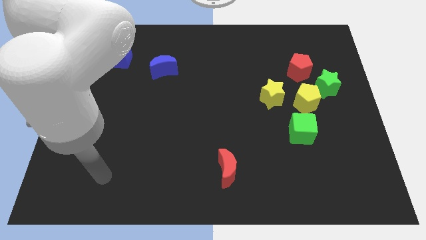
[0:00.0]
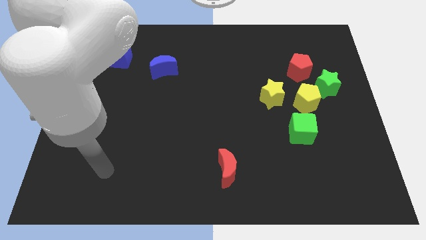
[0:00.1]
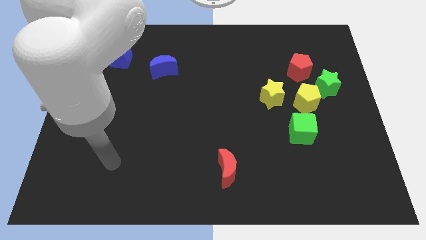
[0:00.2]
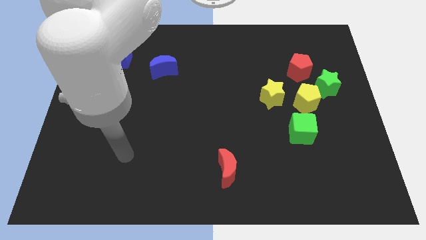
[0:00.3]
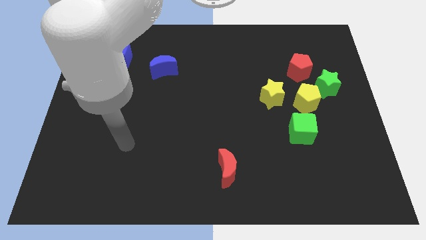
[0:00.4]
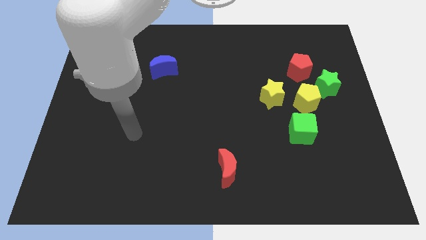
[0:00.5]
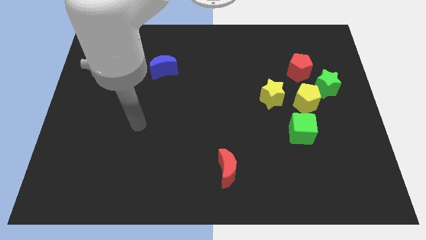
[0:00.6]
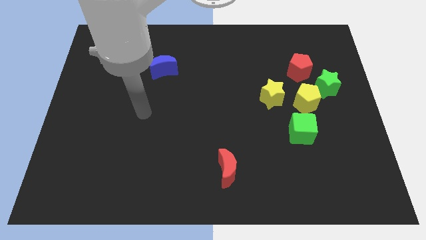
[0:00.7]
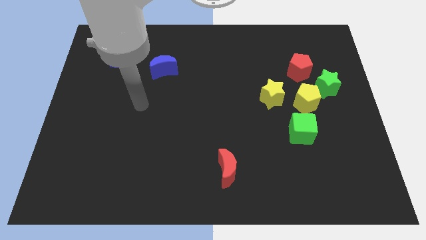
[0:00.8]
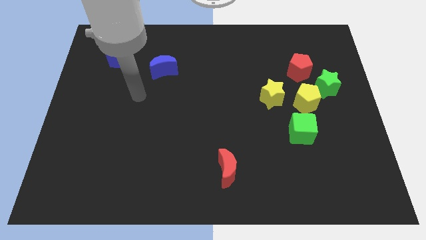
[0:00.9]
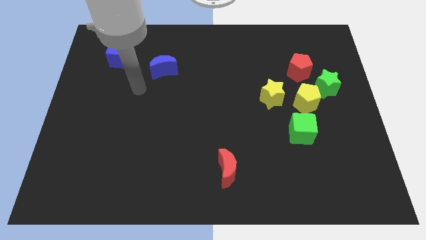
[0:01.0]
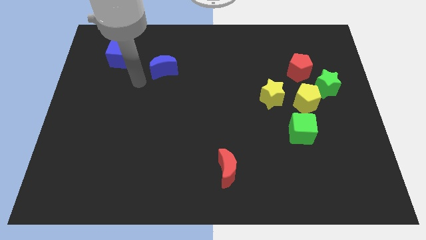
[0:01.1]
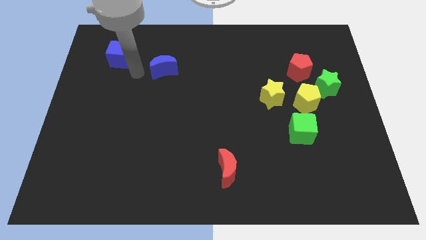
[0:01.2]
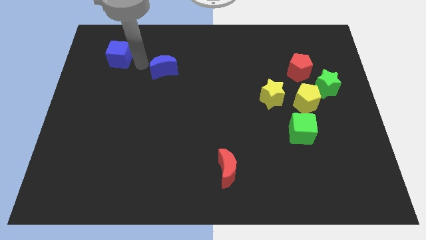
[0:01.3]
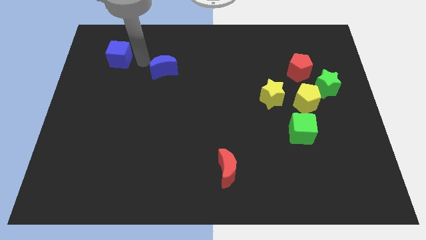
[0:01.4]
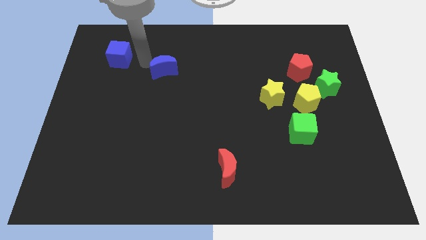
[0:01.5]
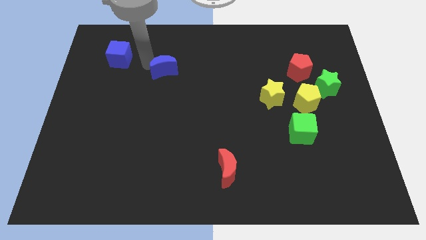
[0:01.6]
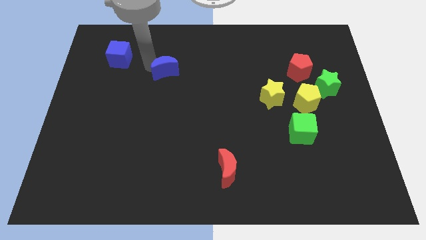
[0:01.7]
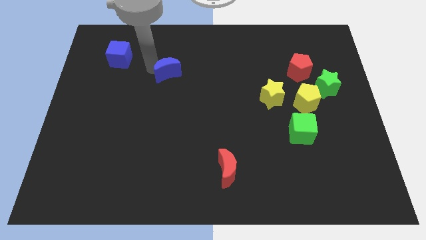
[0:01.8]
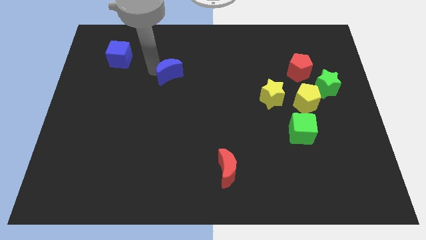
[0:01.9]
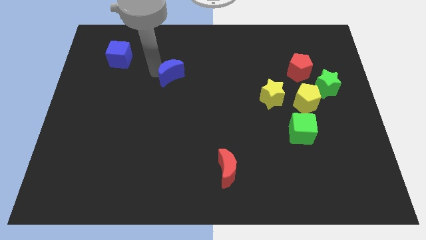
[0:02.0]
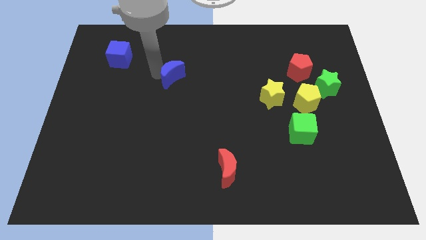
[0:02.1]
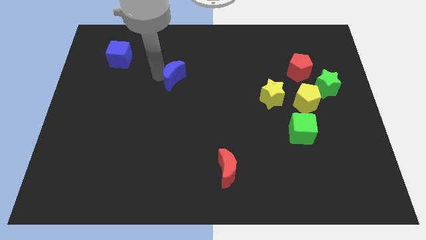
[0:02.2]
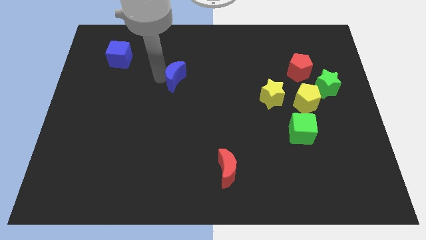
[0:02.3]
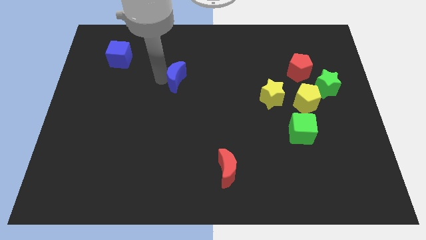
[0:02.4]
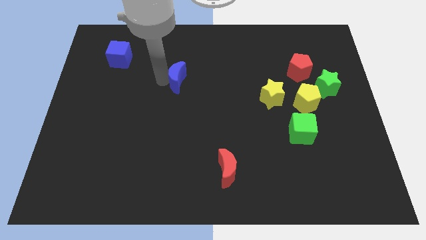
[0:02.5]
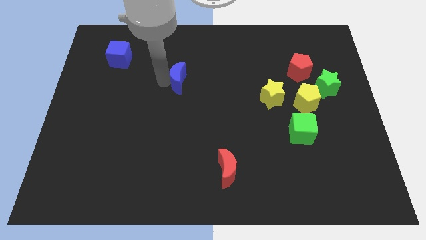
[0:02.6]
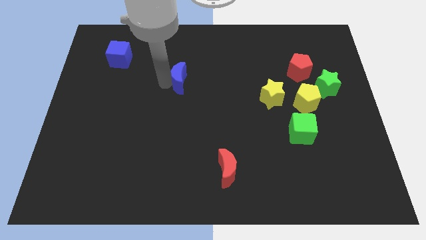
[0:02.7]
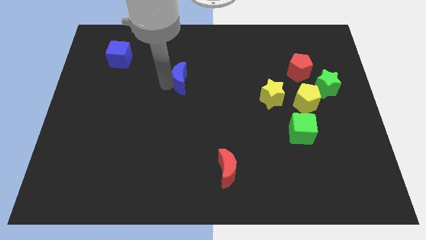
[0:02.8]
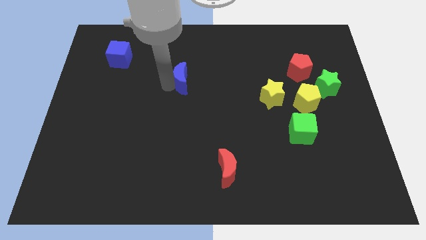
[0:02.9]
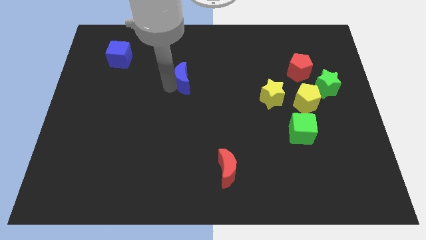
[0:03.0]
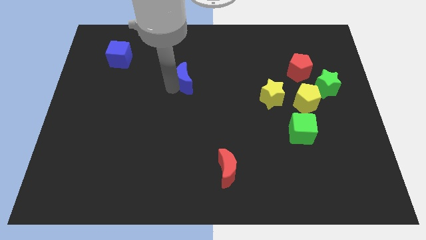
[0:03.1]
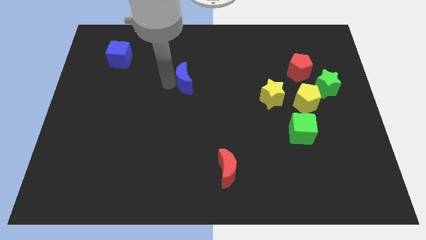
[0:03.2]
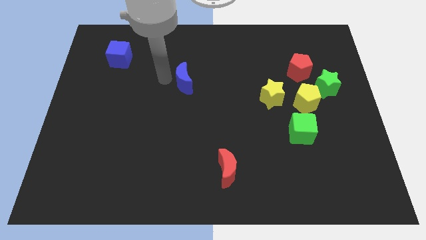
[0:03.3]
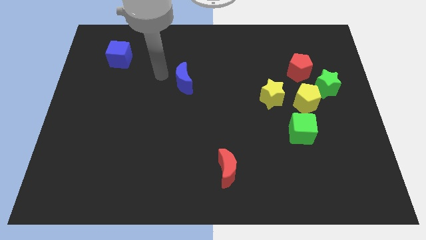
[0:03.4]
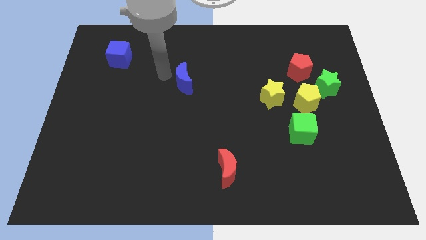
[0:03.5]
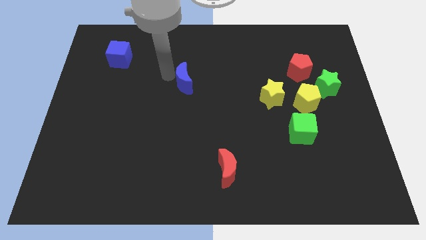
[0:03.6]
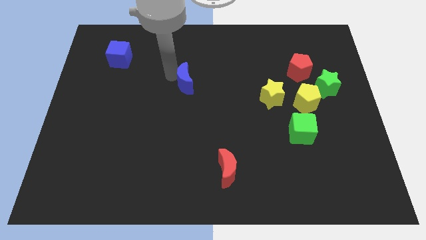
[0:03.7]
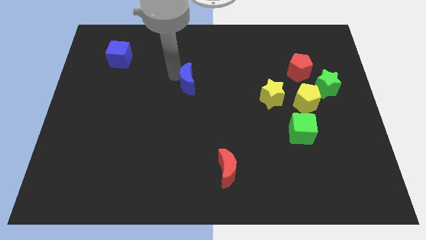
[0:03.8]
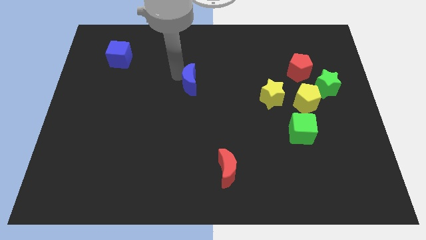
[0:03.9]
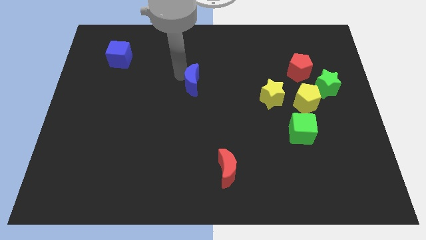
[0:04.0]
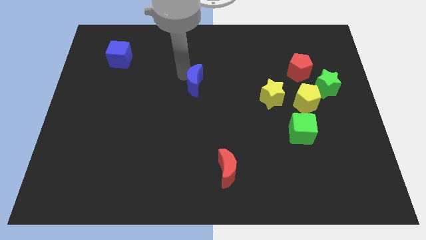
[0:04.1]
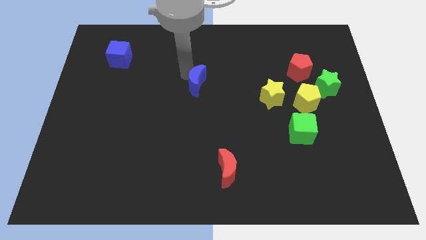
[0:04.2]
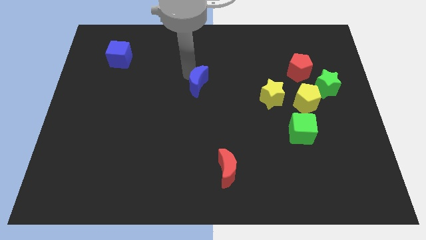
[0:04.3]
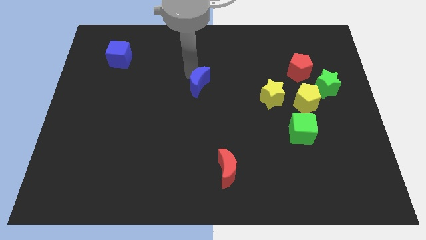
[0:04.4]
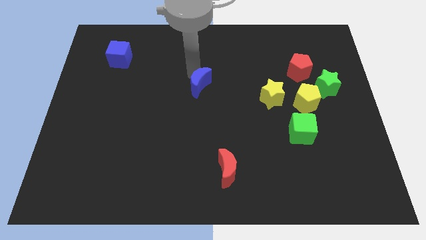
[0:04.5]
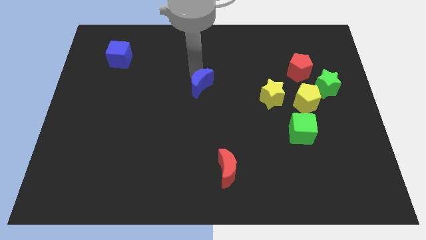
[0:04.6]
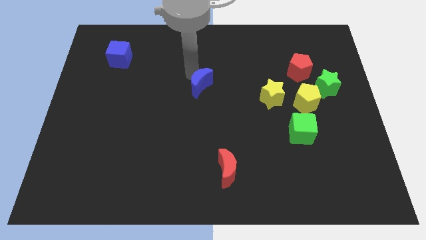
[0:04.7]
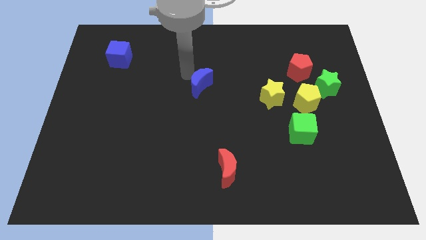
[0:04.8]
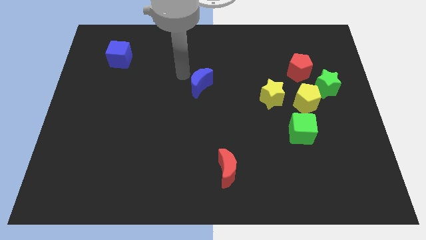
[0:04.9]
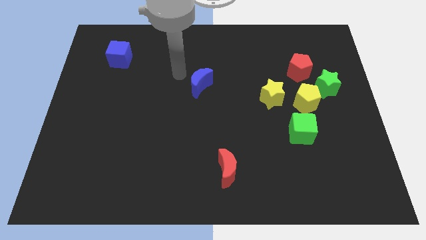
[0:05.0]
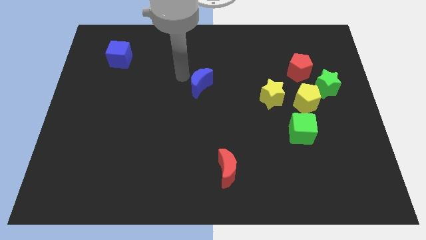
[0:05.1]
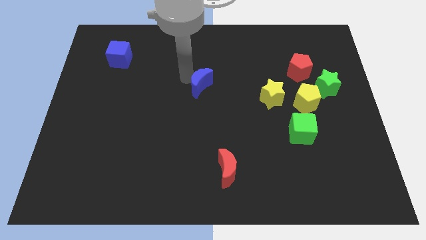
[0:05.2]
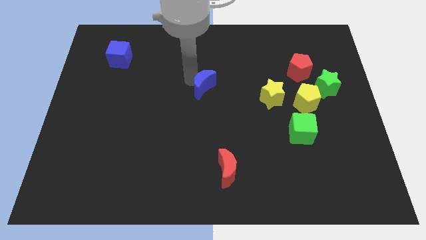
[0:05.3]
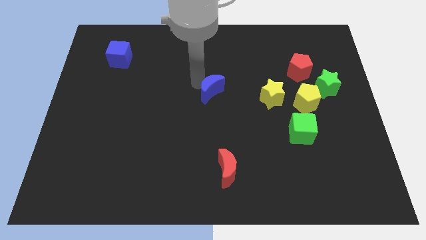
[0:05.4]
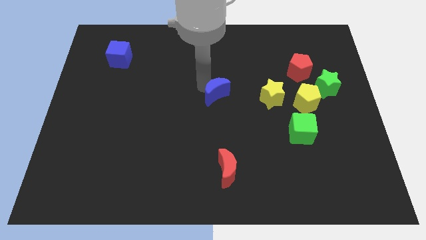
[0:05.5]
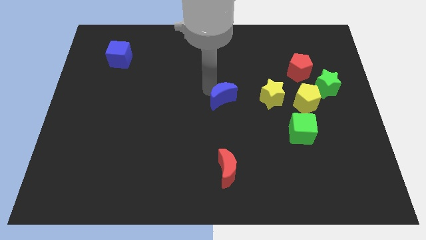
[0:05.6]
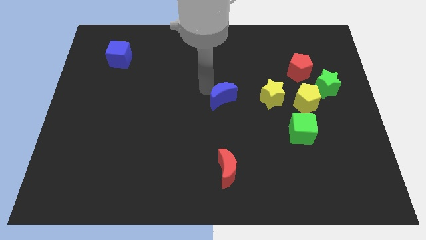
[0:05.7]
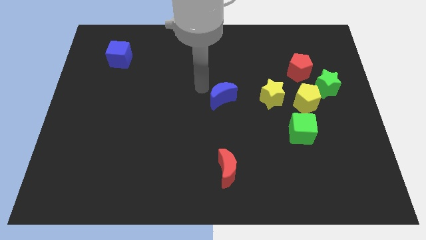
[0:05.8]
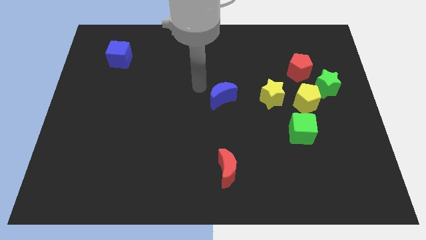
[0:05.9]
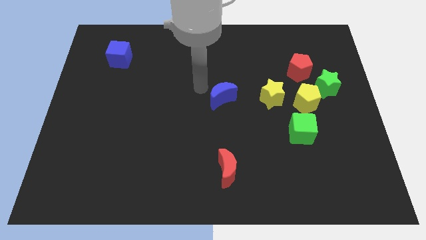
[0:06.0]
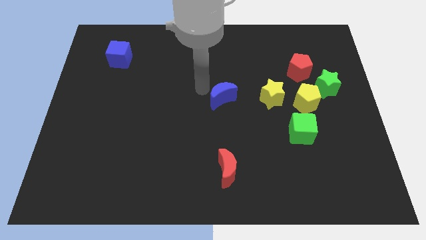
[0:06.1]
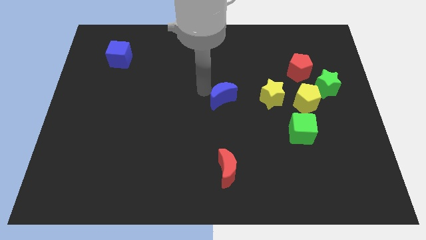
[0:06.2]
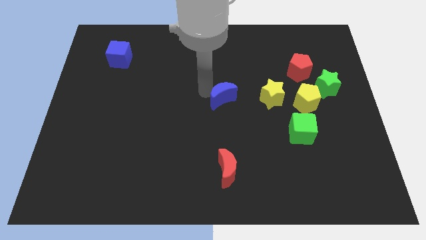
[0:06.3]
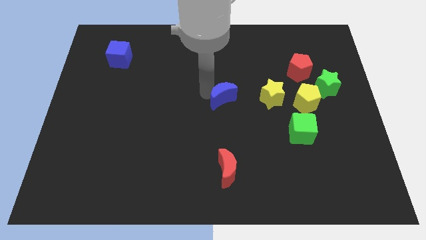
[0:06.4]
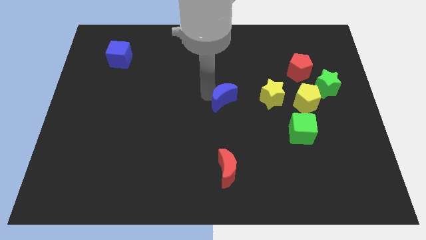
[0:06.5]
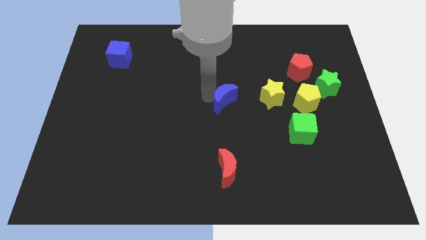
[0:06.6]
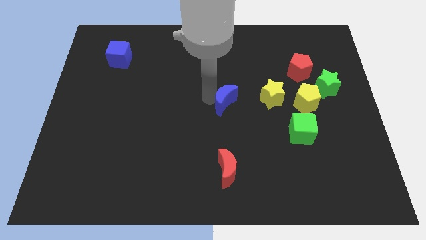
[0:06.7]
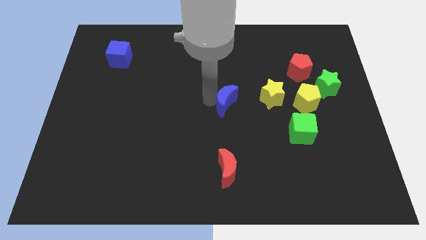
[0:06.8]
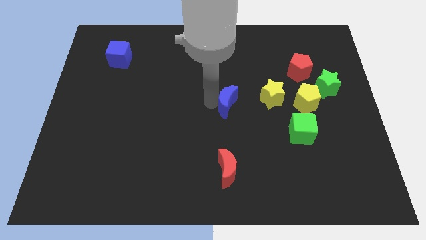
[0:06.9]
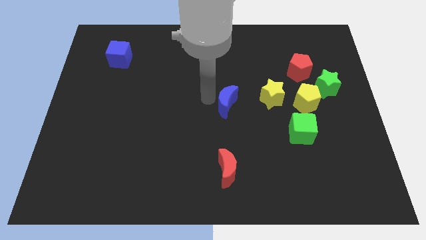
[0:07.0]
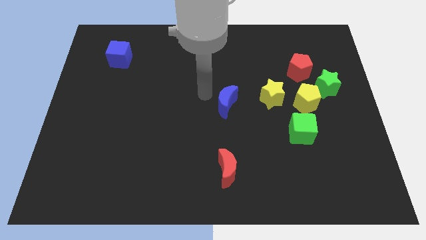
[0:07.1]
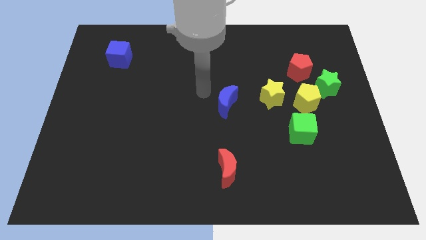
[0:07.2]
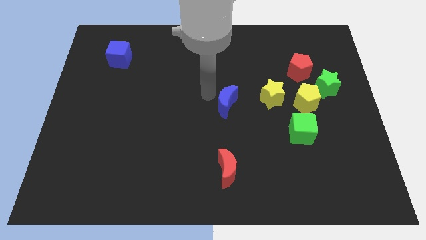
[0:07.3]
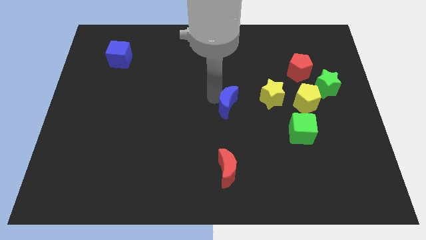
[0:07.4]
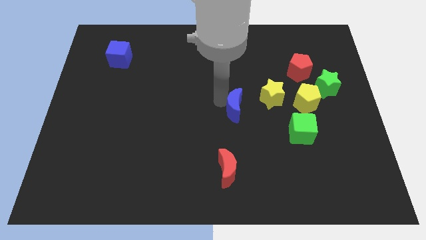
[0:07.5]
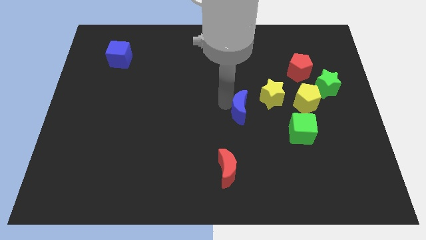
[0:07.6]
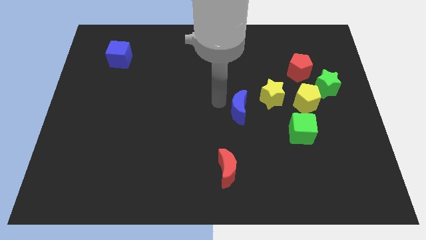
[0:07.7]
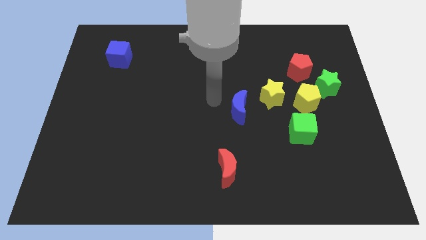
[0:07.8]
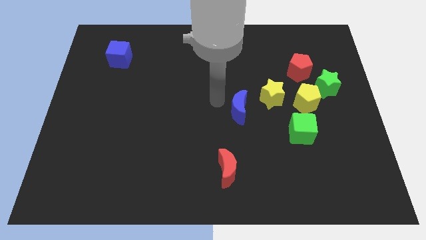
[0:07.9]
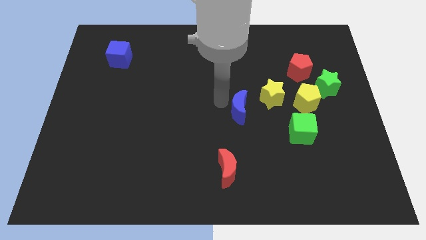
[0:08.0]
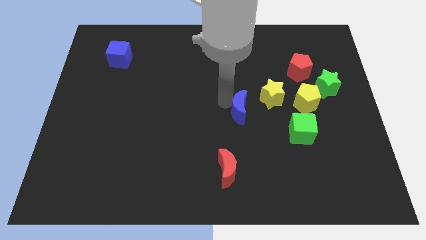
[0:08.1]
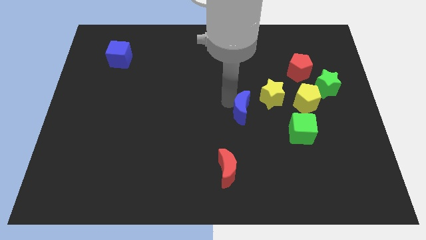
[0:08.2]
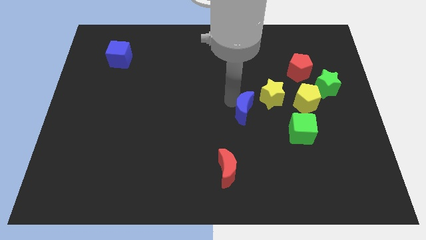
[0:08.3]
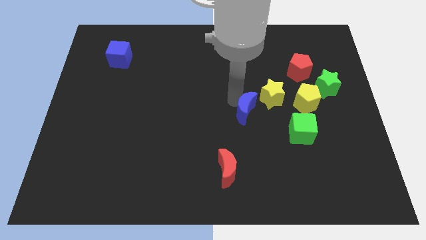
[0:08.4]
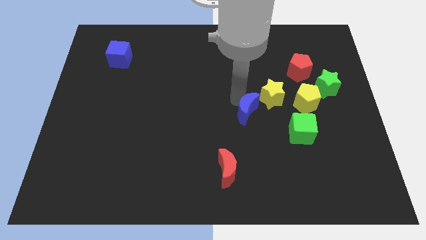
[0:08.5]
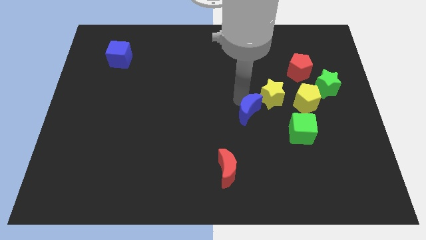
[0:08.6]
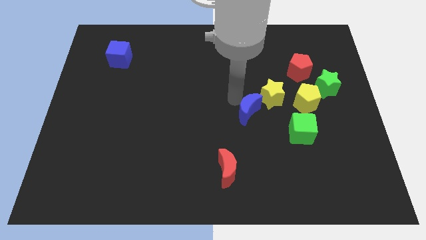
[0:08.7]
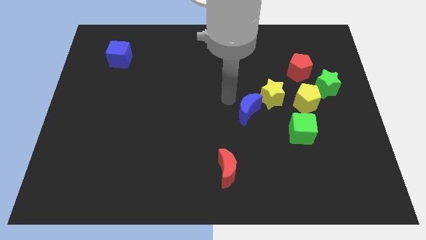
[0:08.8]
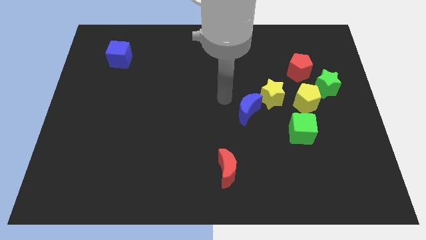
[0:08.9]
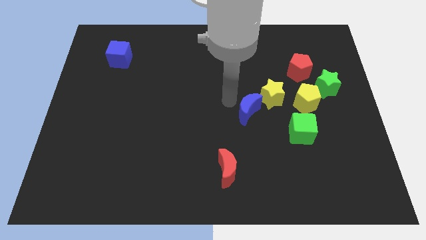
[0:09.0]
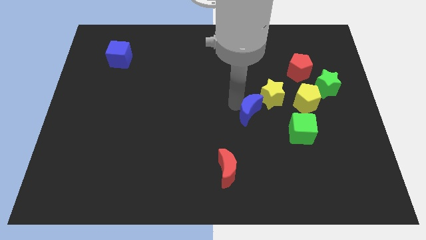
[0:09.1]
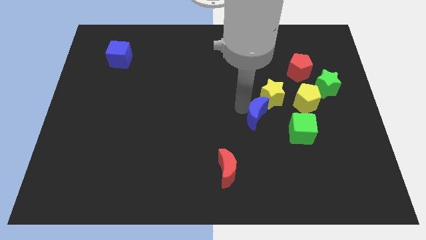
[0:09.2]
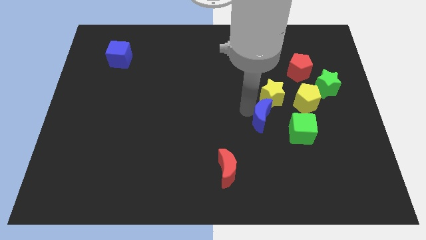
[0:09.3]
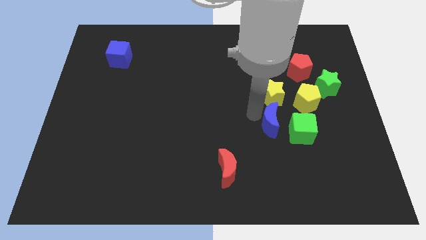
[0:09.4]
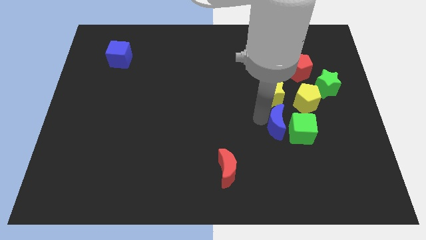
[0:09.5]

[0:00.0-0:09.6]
put the blue moon next to the green cube
